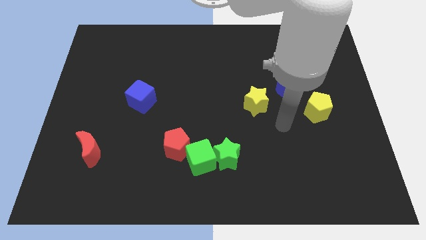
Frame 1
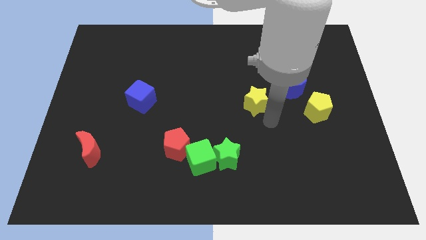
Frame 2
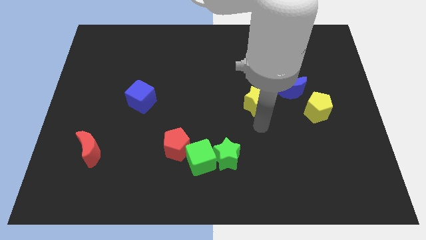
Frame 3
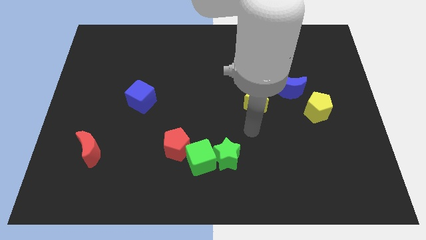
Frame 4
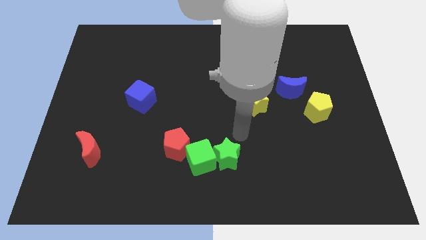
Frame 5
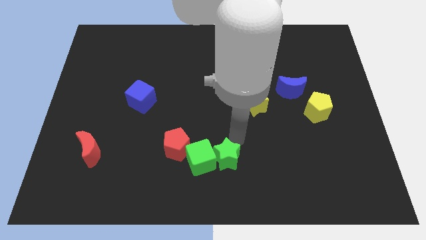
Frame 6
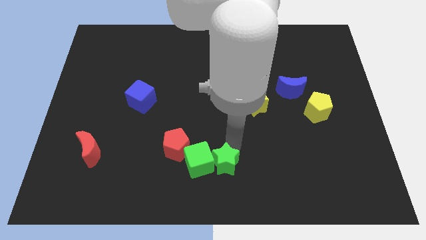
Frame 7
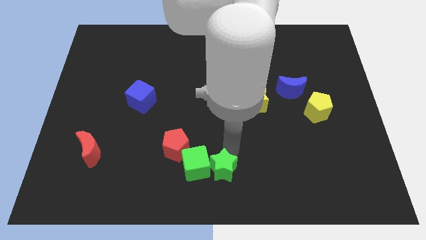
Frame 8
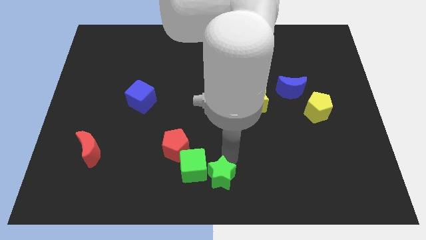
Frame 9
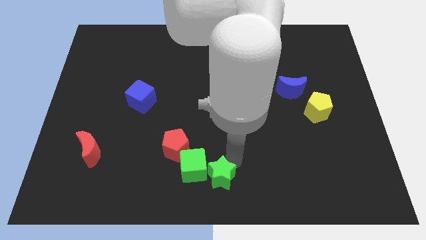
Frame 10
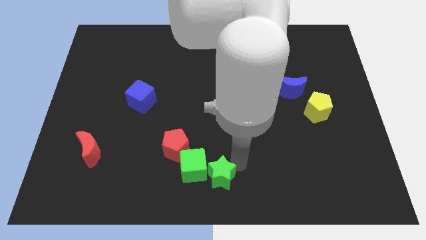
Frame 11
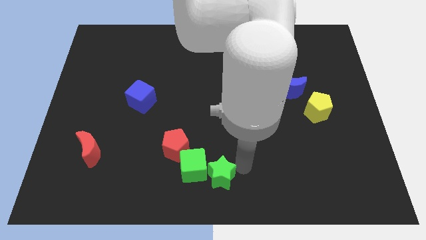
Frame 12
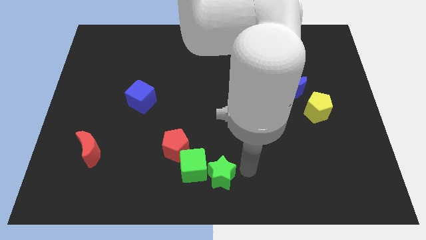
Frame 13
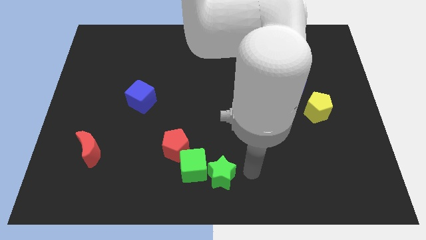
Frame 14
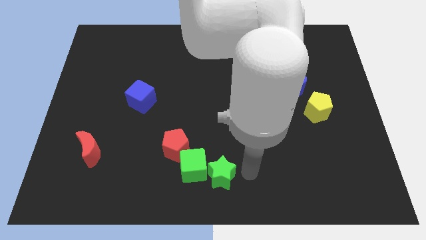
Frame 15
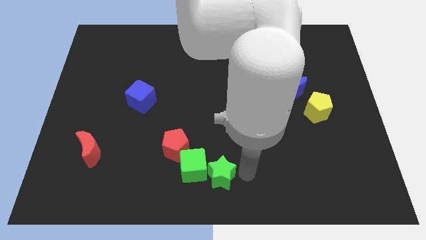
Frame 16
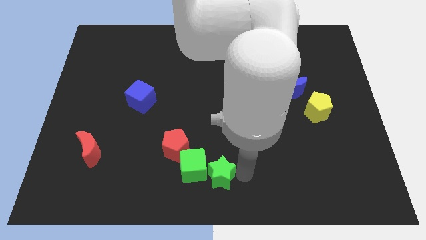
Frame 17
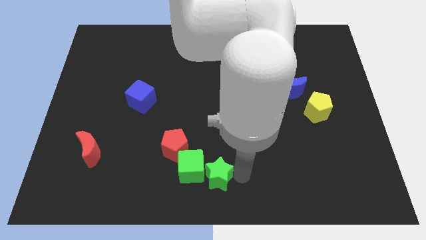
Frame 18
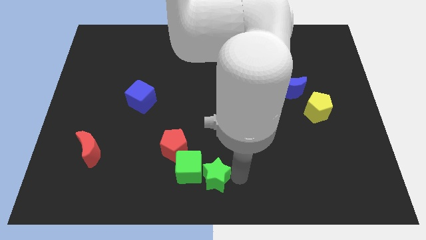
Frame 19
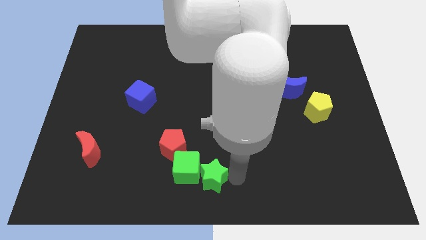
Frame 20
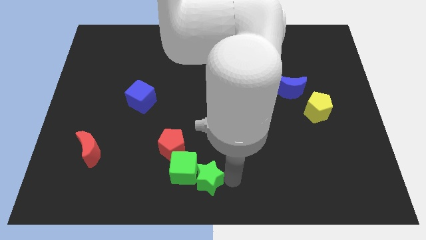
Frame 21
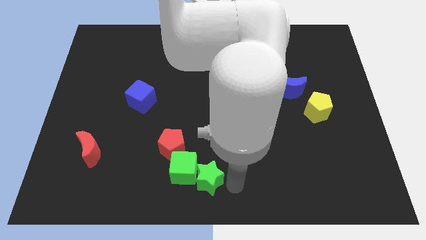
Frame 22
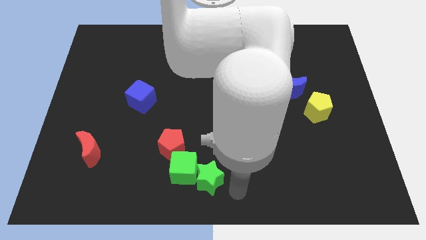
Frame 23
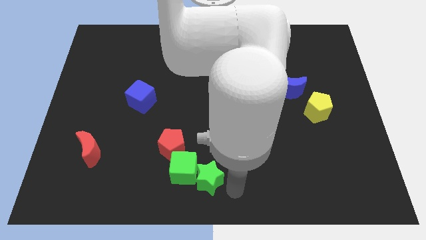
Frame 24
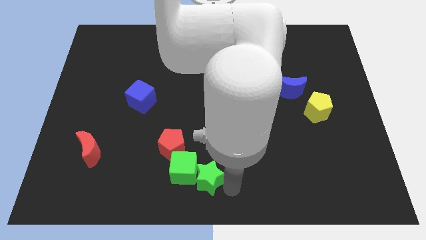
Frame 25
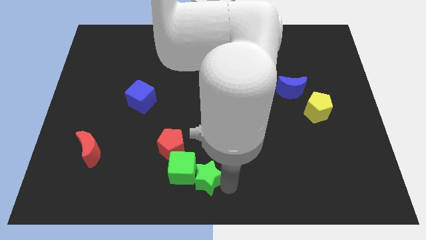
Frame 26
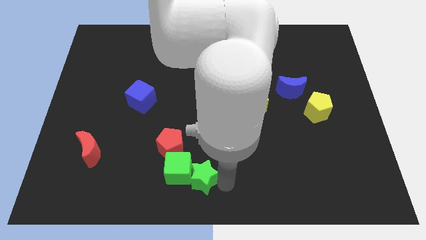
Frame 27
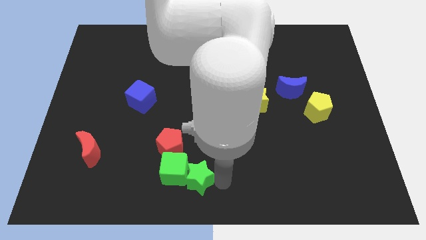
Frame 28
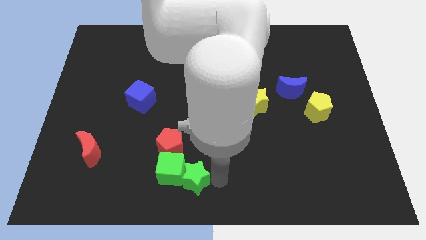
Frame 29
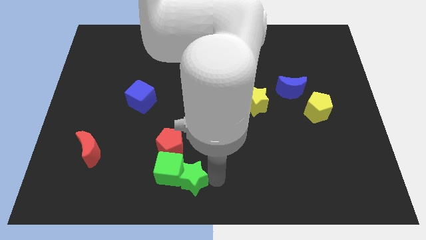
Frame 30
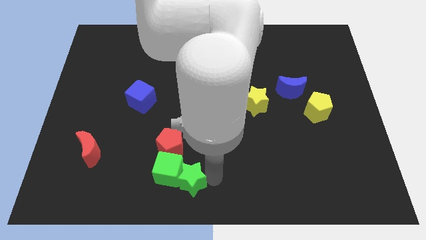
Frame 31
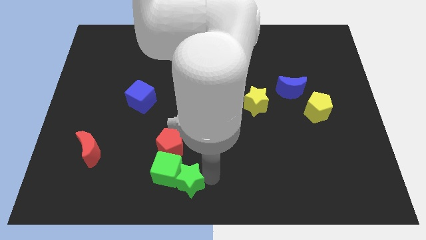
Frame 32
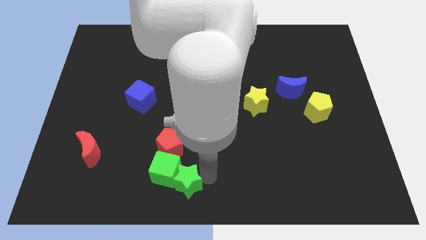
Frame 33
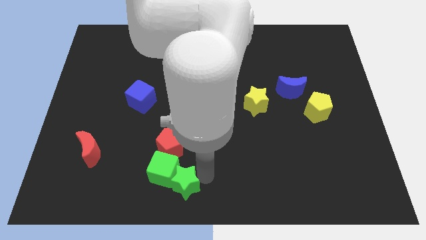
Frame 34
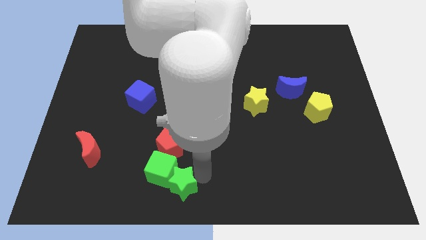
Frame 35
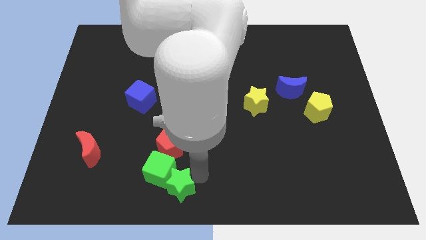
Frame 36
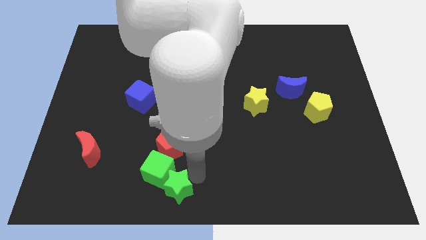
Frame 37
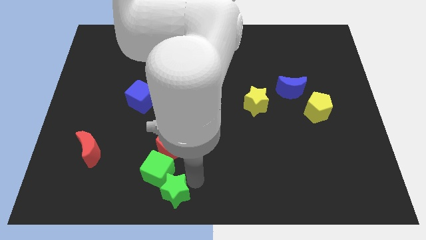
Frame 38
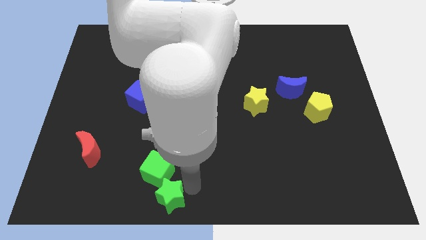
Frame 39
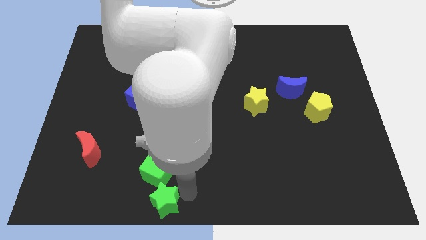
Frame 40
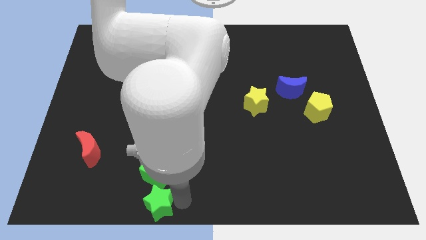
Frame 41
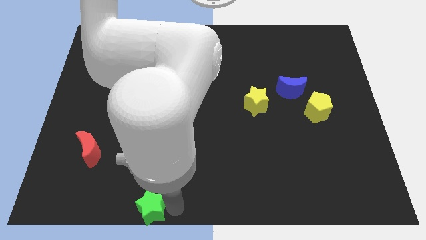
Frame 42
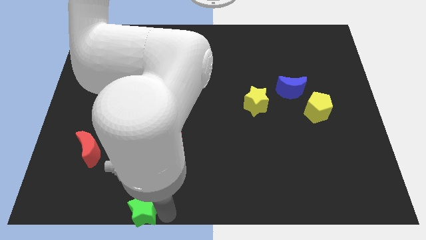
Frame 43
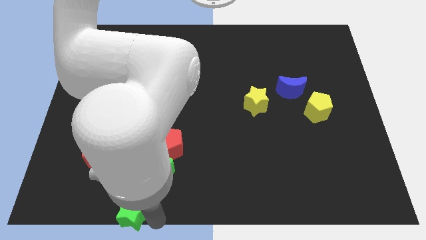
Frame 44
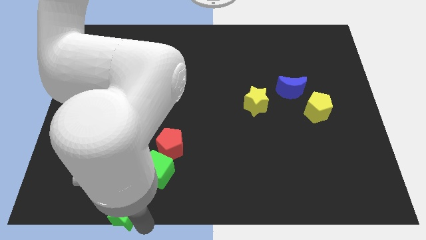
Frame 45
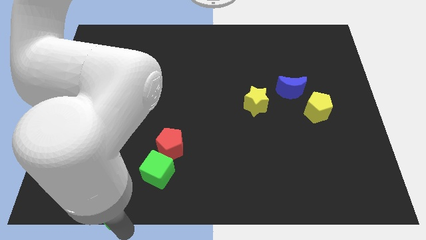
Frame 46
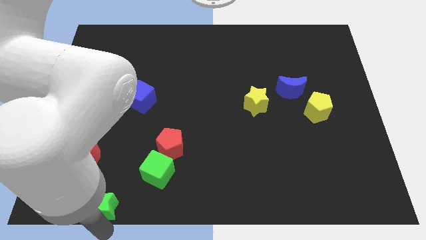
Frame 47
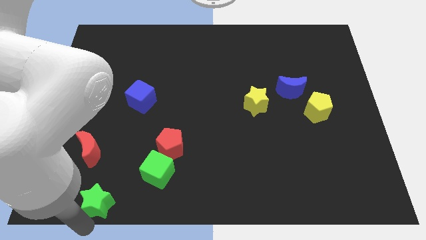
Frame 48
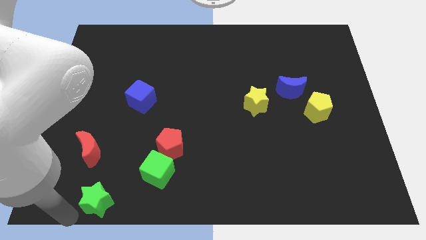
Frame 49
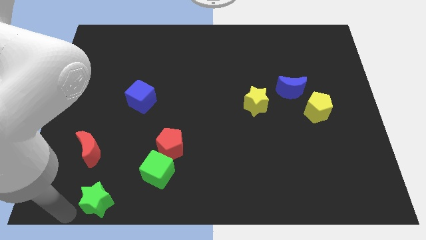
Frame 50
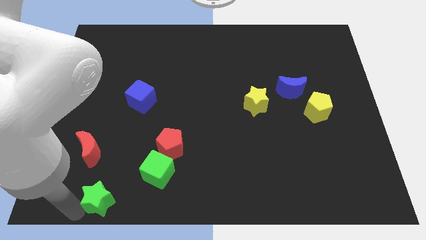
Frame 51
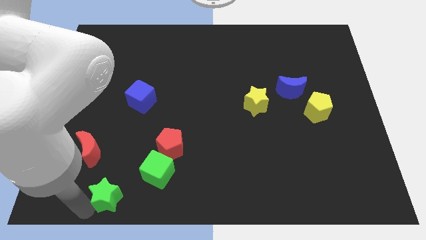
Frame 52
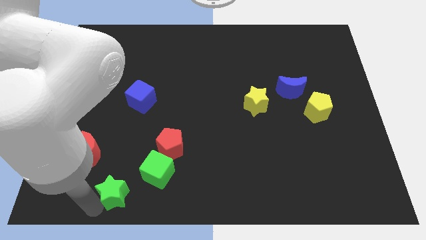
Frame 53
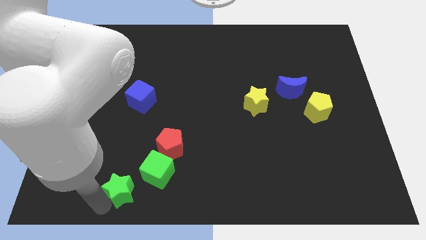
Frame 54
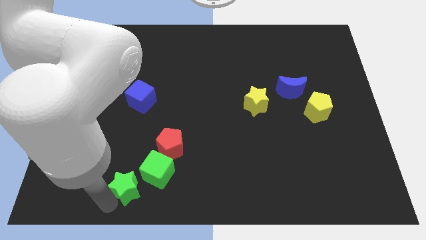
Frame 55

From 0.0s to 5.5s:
push the green star diagonally down and to the left of the red pentagon

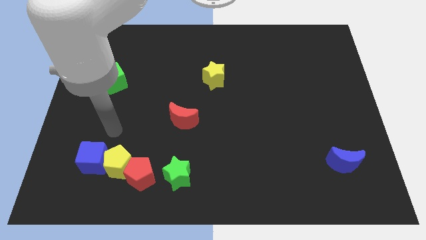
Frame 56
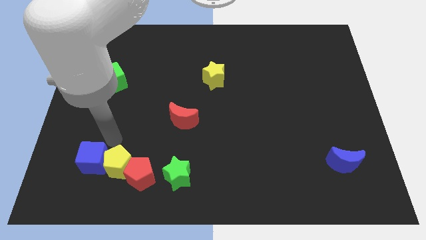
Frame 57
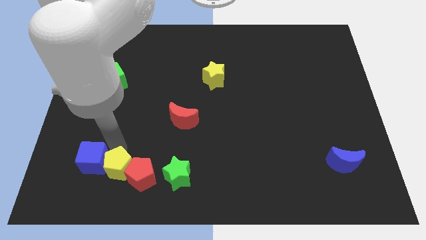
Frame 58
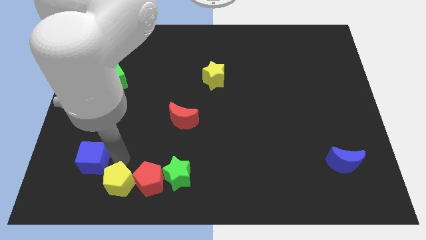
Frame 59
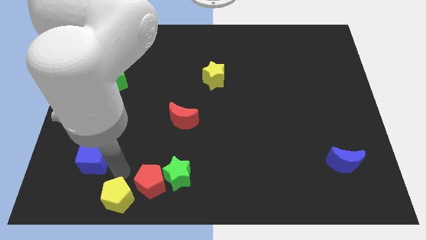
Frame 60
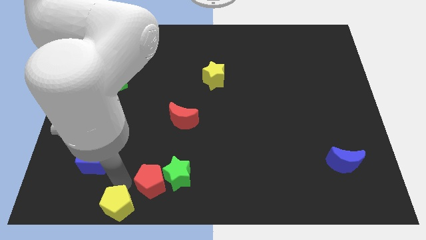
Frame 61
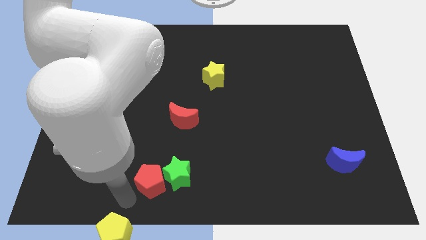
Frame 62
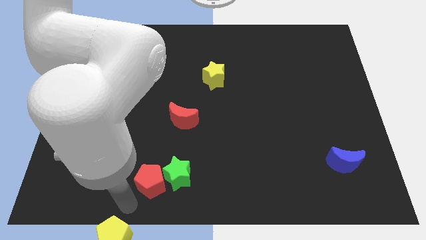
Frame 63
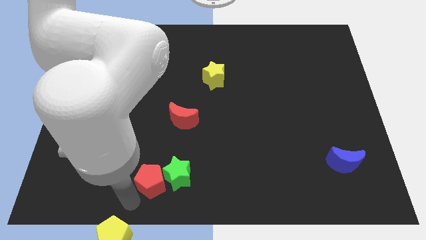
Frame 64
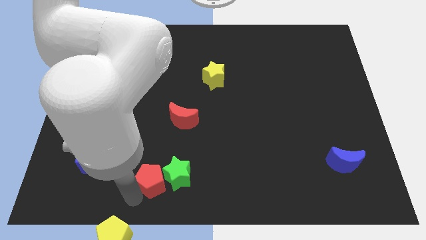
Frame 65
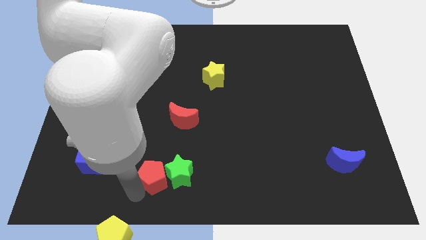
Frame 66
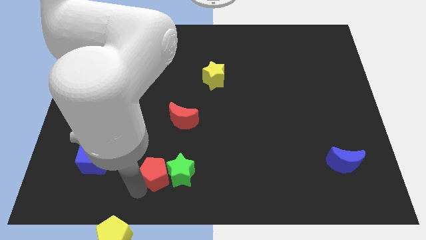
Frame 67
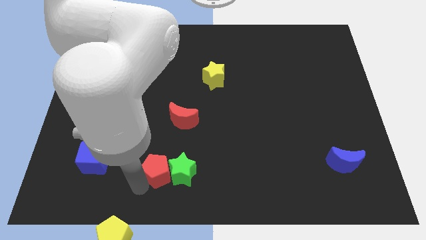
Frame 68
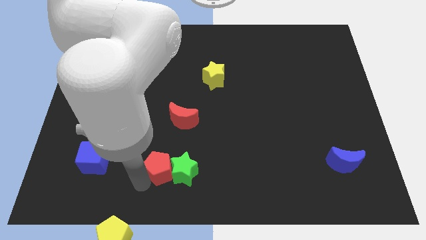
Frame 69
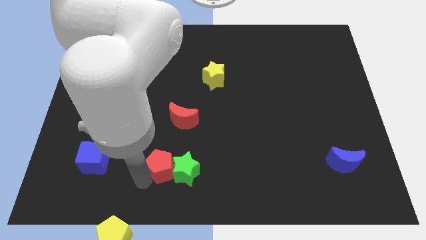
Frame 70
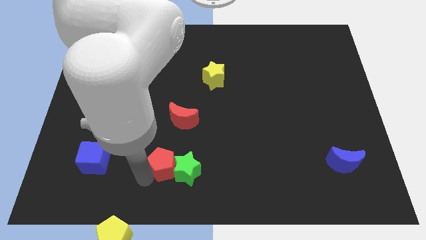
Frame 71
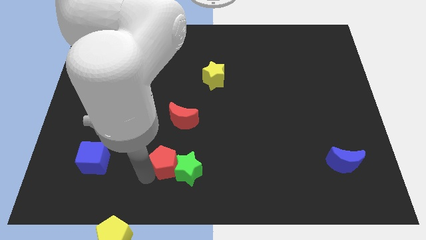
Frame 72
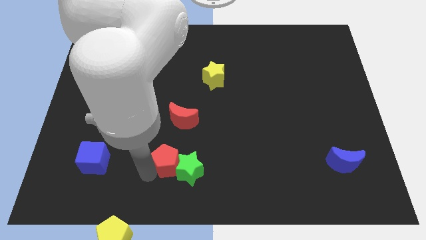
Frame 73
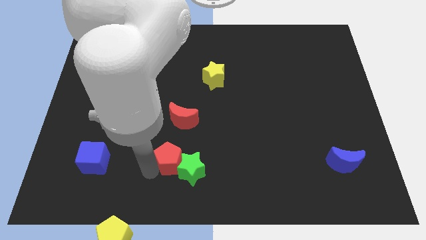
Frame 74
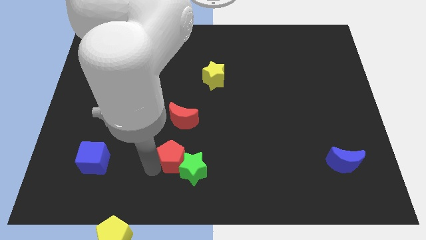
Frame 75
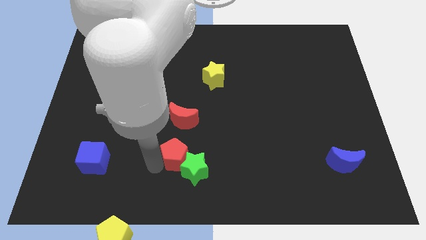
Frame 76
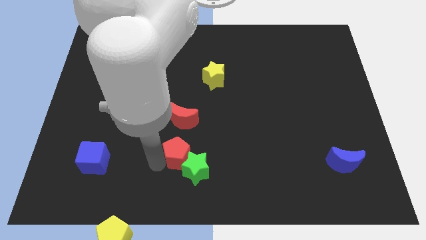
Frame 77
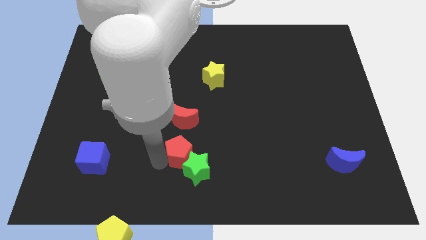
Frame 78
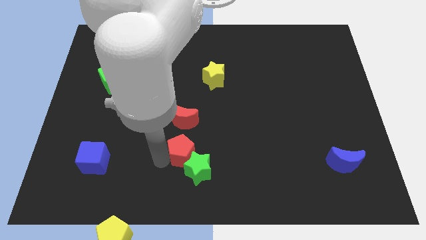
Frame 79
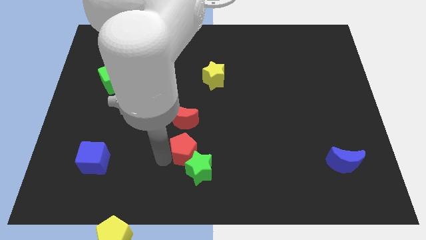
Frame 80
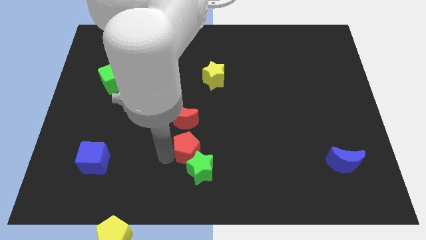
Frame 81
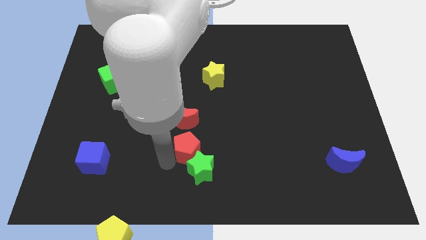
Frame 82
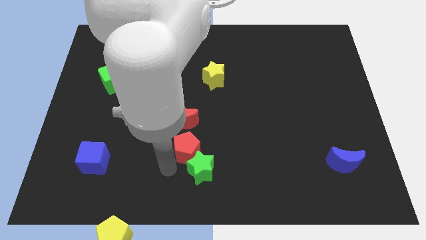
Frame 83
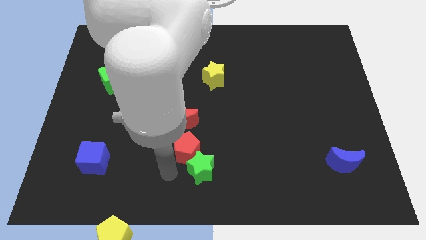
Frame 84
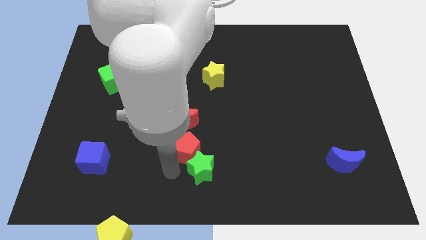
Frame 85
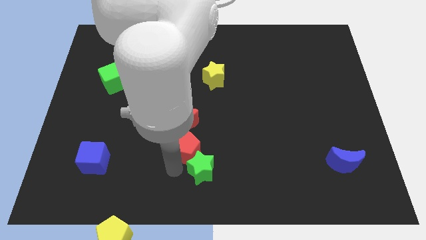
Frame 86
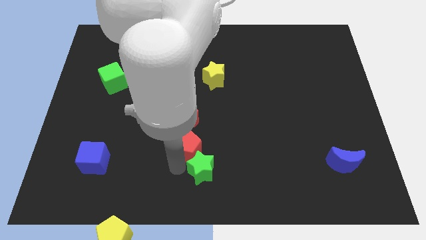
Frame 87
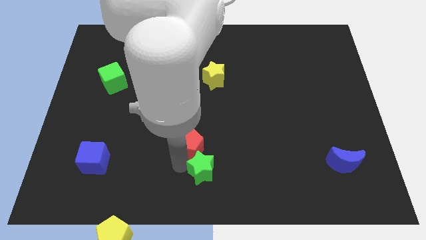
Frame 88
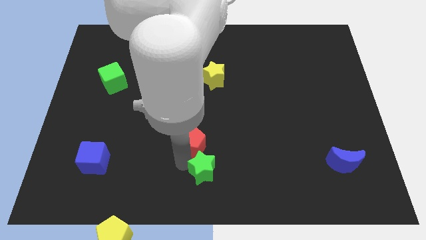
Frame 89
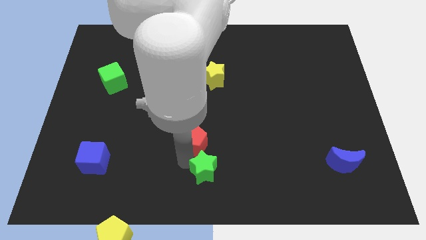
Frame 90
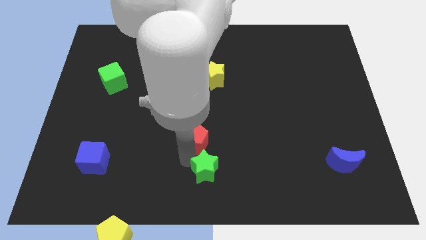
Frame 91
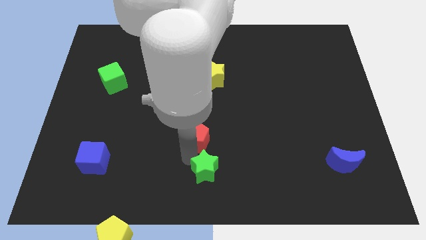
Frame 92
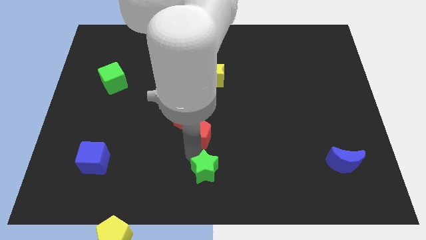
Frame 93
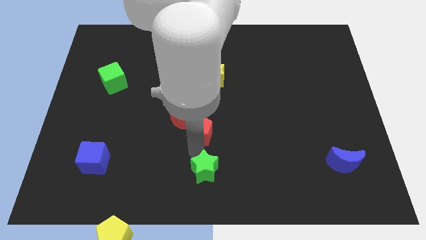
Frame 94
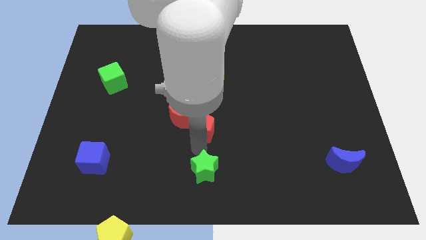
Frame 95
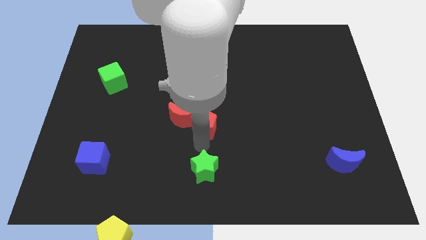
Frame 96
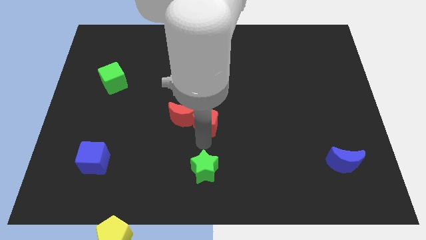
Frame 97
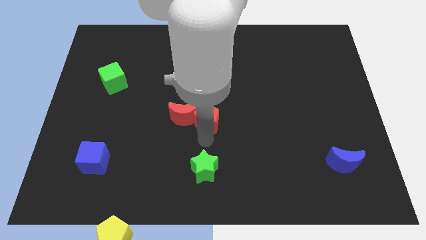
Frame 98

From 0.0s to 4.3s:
push the red pentagon to the top right side of the red moon
